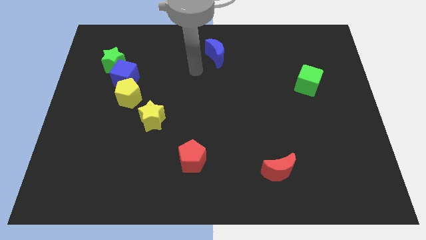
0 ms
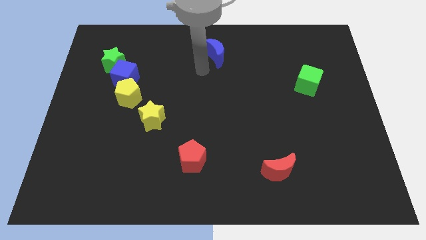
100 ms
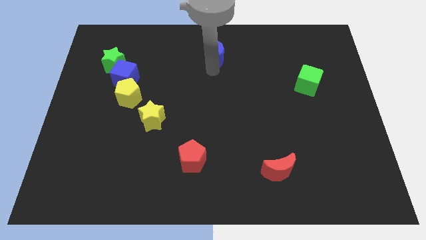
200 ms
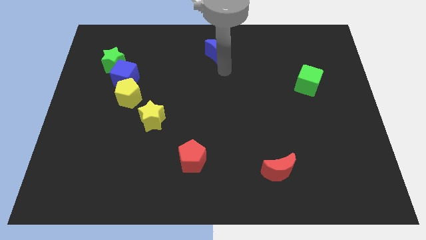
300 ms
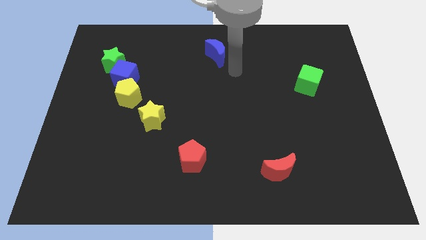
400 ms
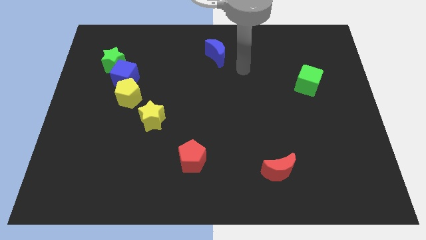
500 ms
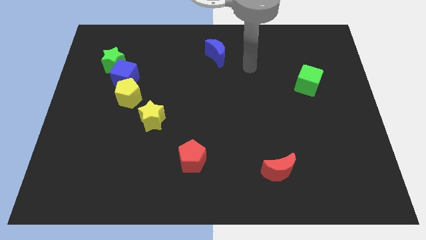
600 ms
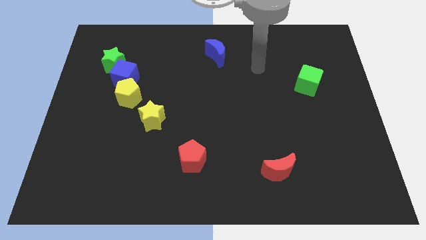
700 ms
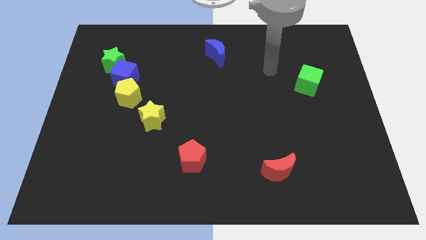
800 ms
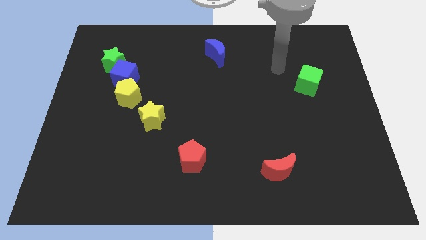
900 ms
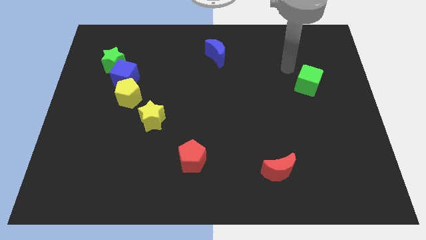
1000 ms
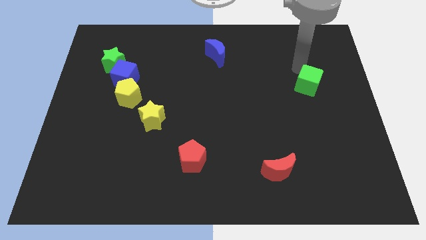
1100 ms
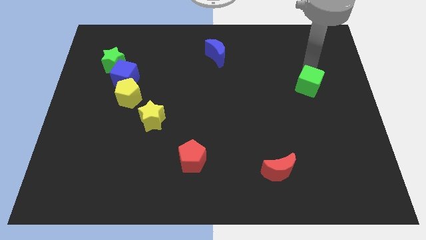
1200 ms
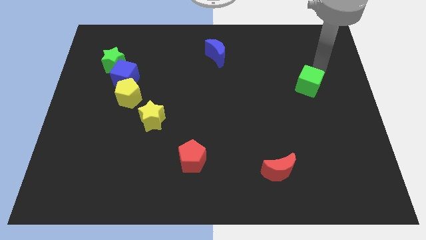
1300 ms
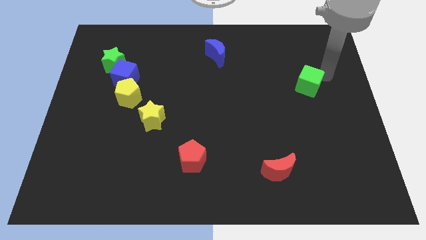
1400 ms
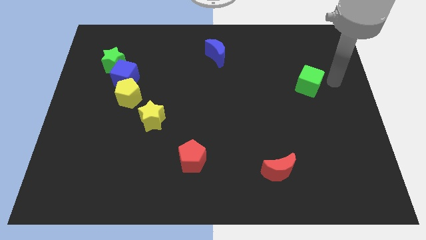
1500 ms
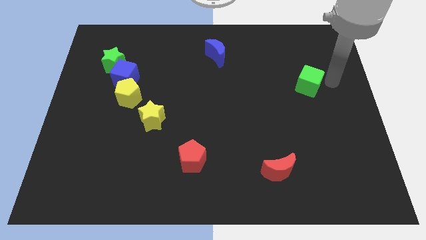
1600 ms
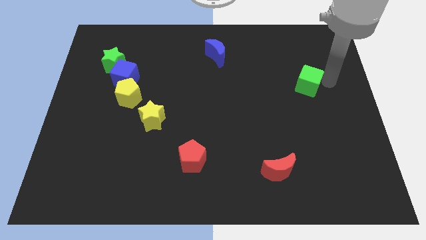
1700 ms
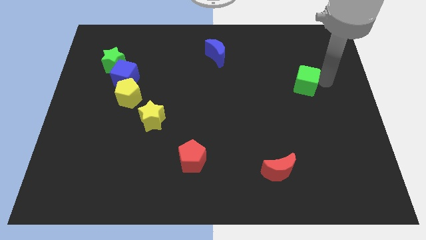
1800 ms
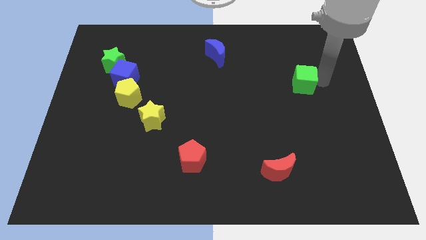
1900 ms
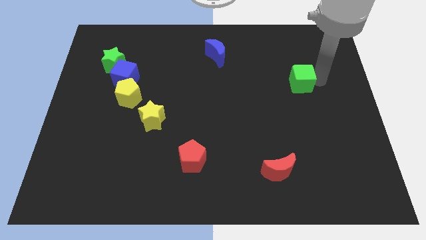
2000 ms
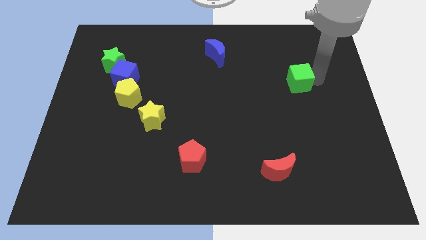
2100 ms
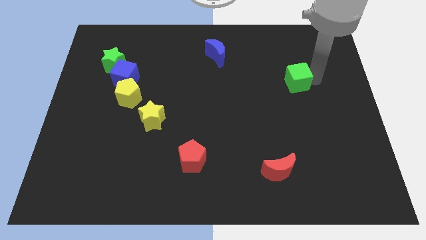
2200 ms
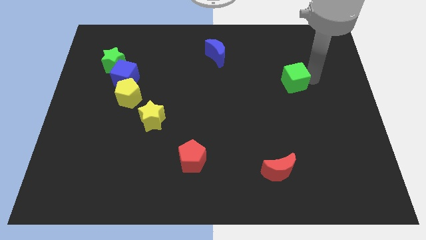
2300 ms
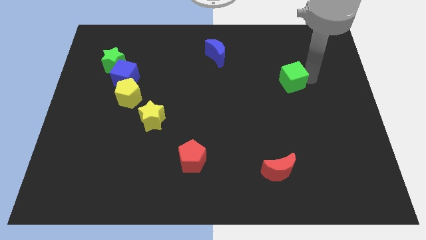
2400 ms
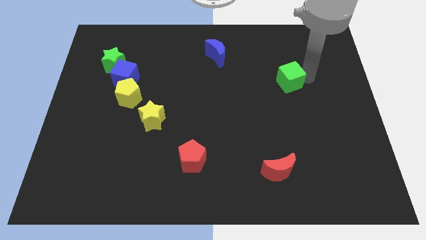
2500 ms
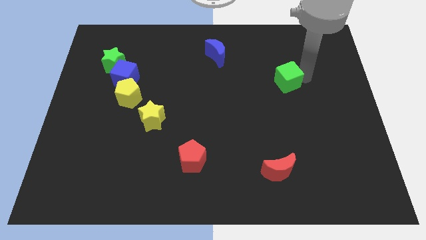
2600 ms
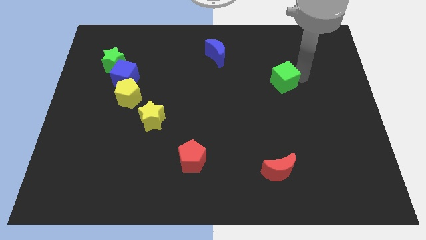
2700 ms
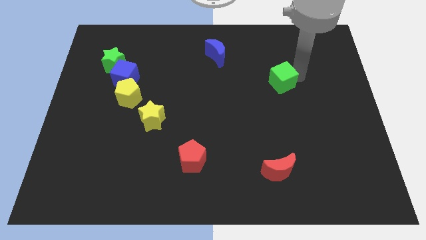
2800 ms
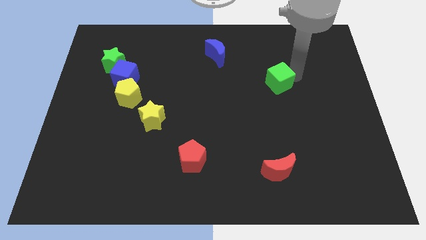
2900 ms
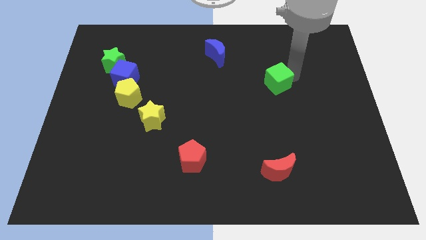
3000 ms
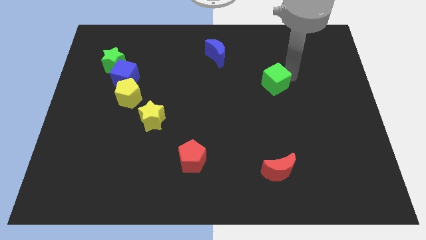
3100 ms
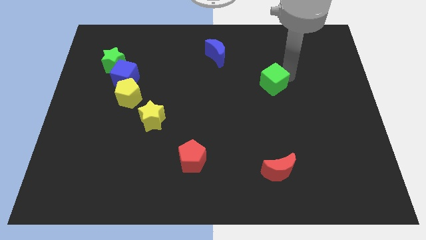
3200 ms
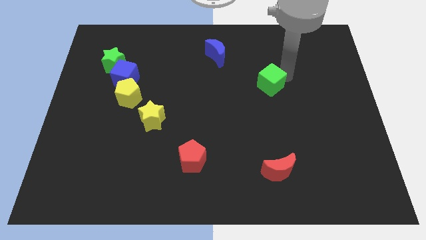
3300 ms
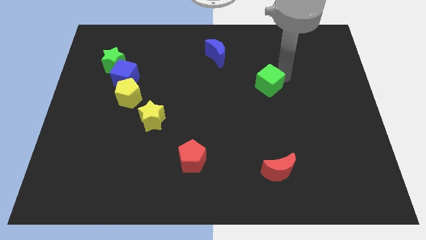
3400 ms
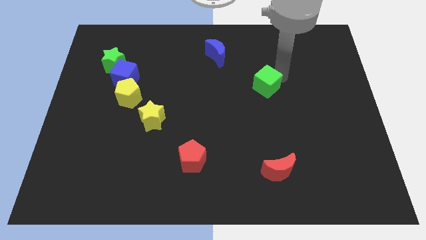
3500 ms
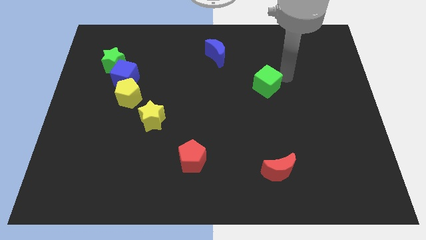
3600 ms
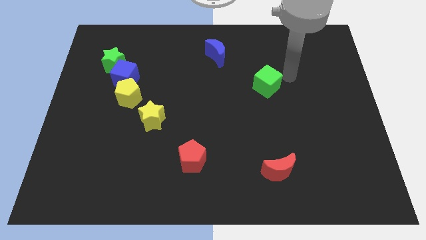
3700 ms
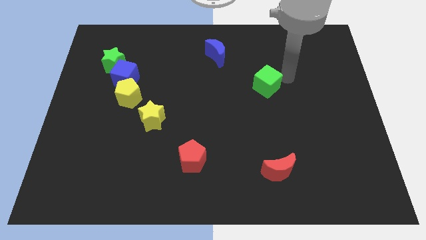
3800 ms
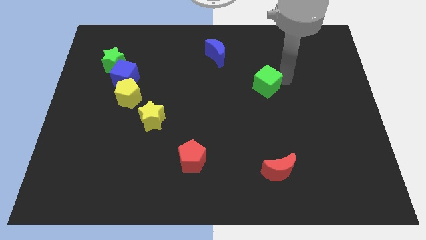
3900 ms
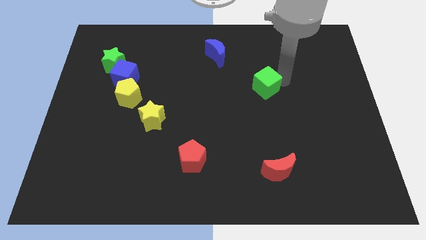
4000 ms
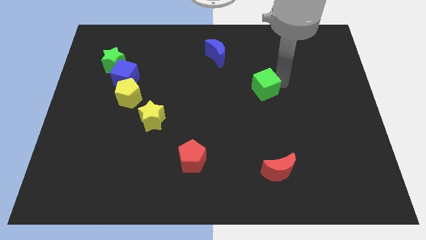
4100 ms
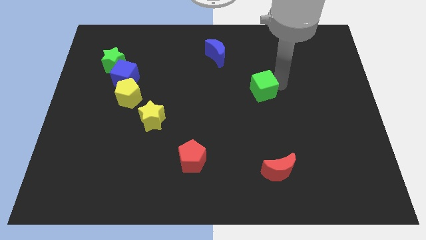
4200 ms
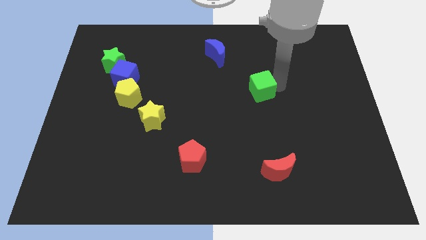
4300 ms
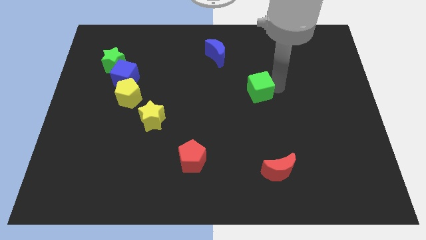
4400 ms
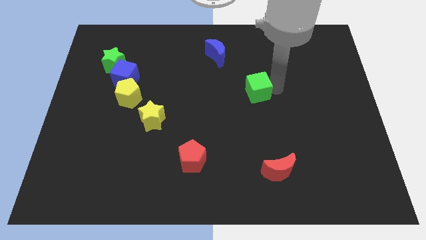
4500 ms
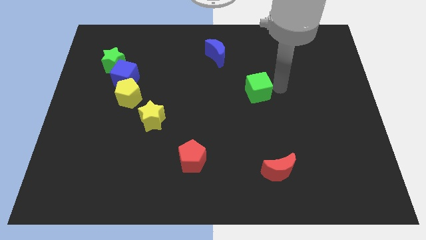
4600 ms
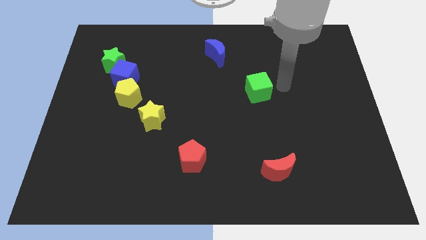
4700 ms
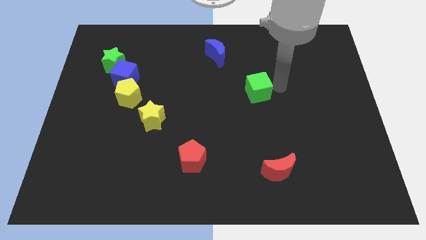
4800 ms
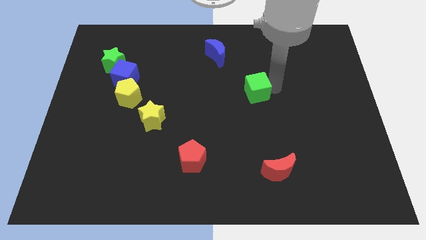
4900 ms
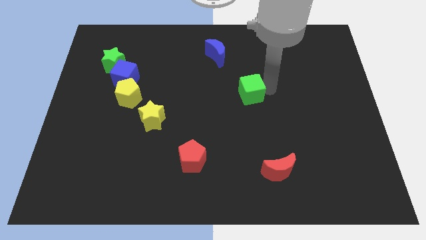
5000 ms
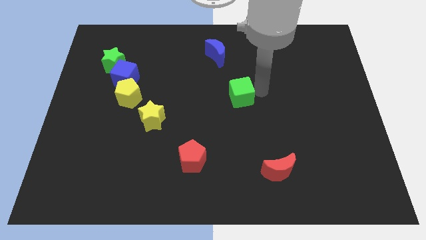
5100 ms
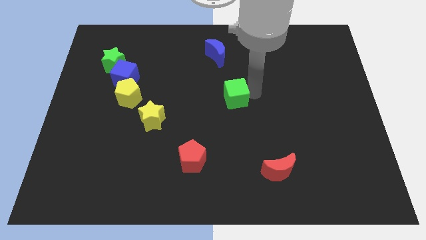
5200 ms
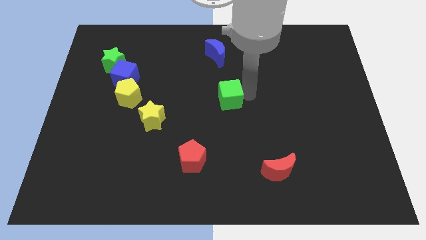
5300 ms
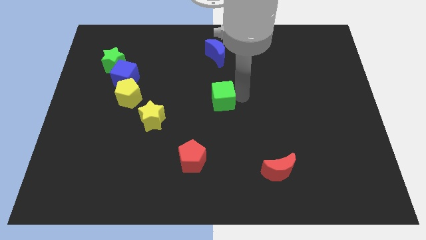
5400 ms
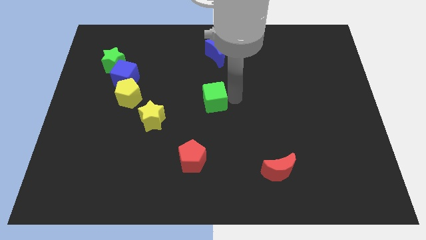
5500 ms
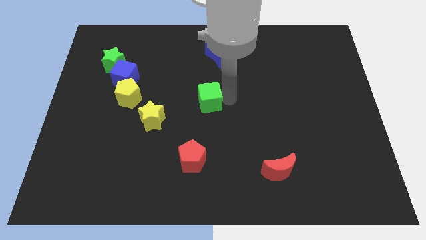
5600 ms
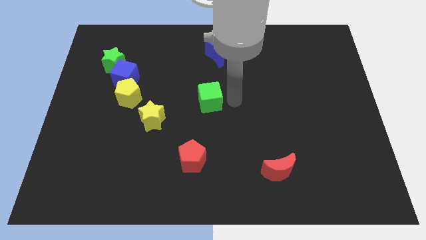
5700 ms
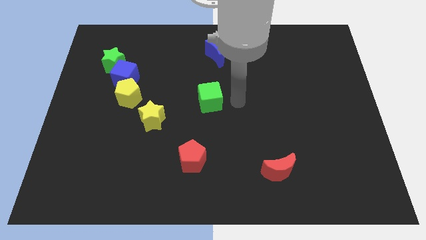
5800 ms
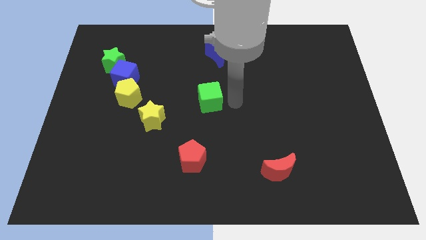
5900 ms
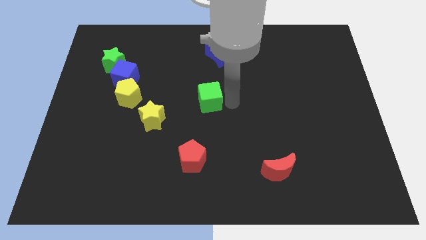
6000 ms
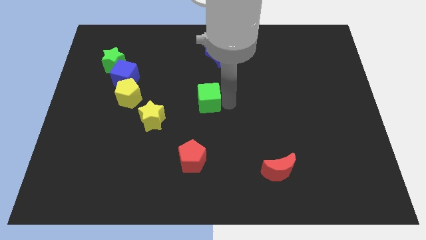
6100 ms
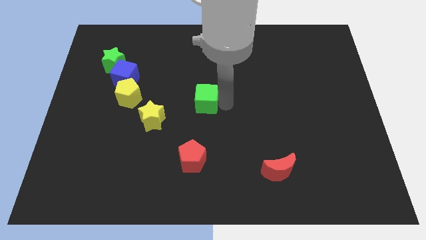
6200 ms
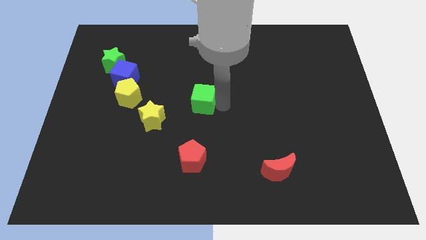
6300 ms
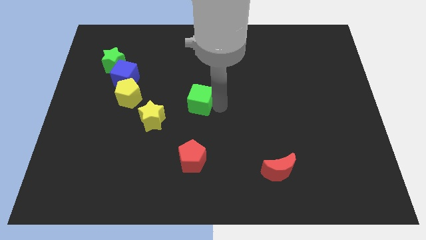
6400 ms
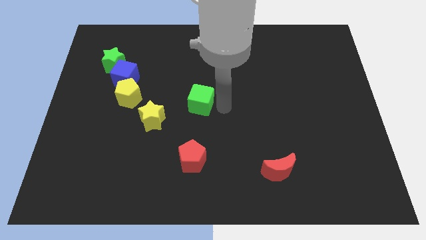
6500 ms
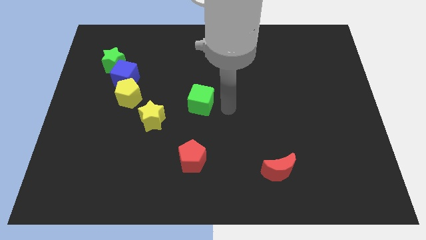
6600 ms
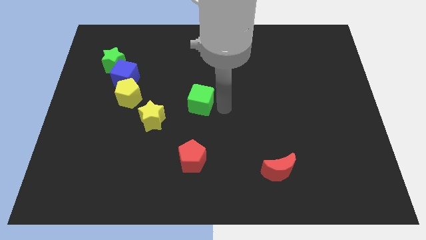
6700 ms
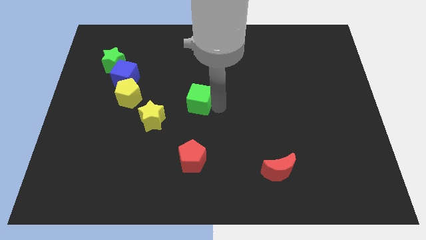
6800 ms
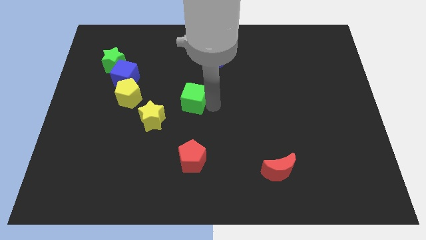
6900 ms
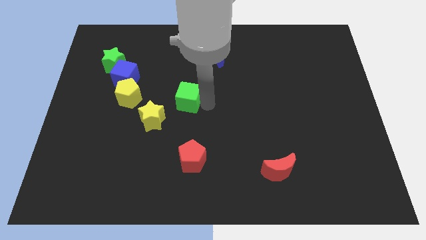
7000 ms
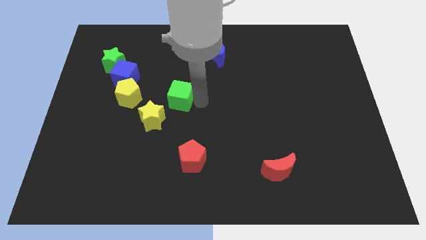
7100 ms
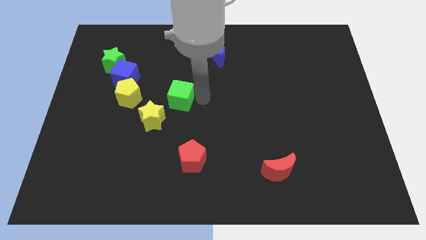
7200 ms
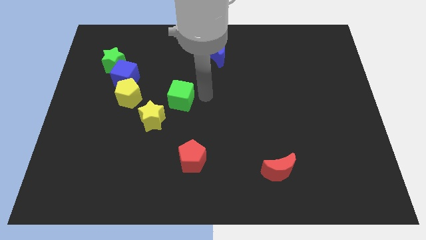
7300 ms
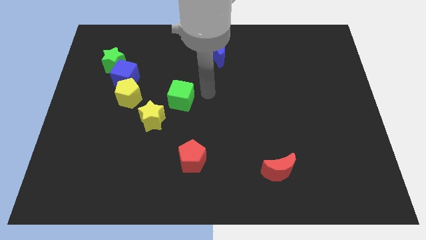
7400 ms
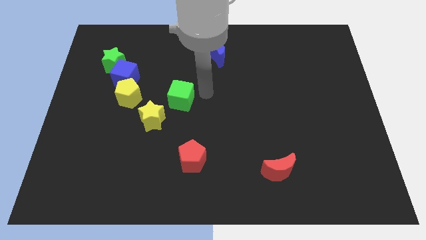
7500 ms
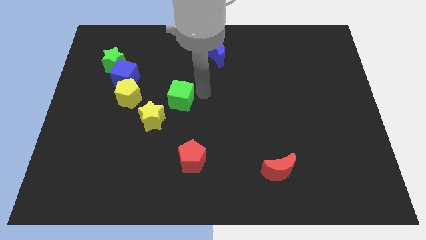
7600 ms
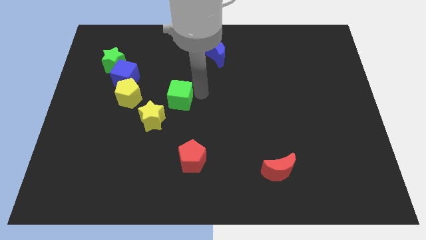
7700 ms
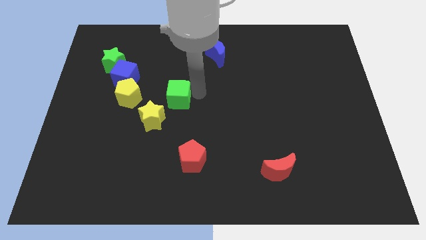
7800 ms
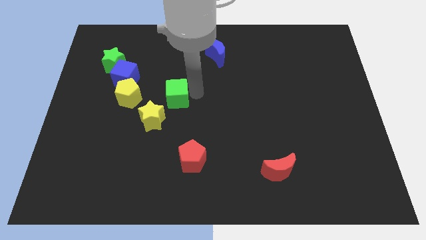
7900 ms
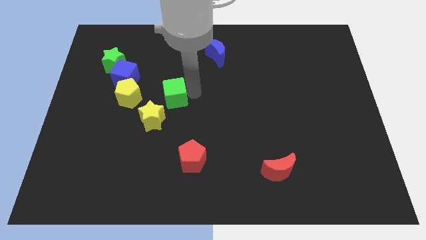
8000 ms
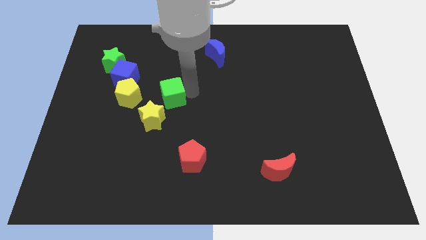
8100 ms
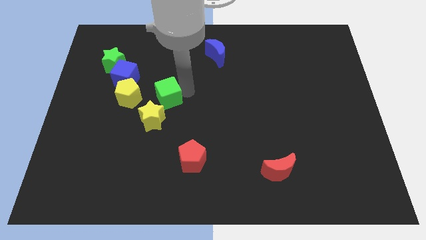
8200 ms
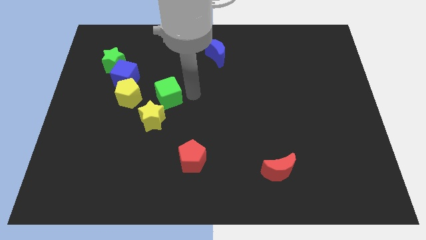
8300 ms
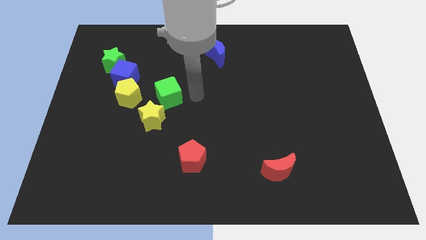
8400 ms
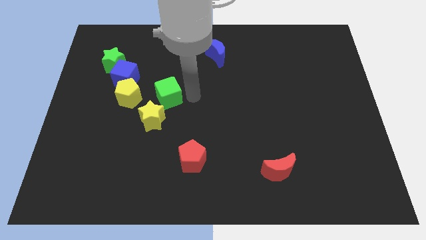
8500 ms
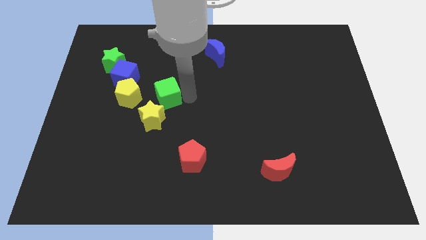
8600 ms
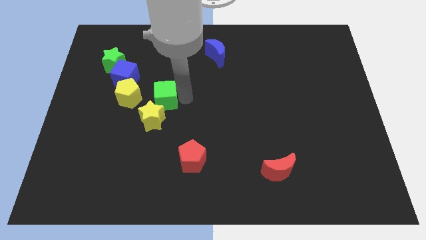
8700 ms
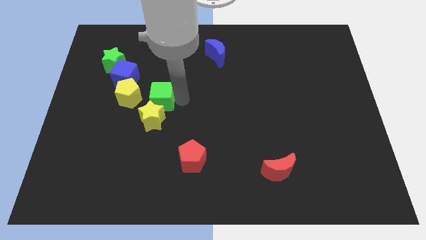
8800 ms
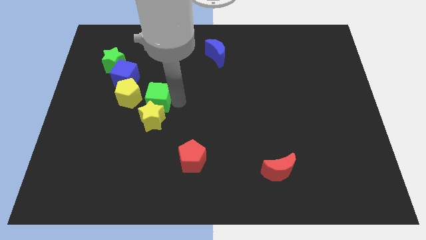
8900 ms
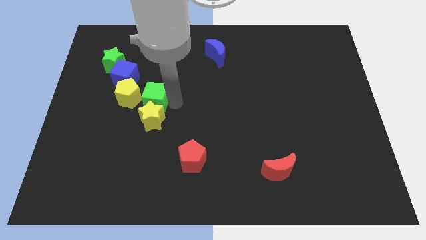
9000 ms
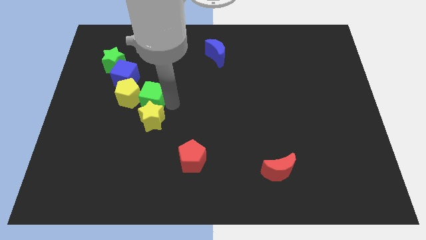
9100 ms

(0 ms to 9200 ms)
slide the green cube to the yellow pentagon
